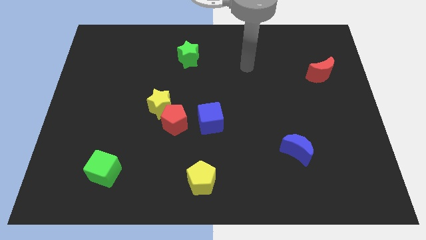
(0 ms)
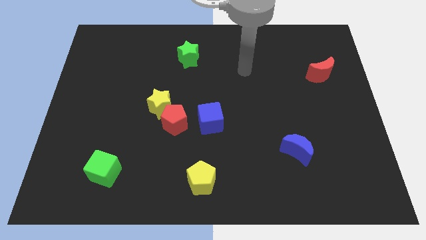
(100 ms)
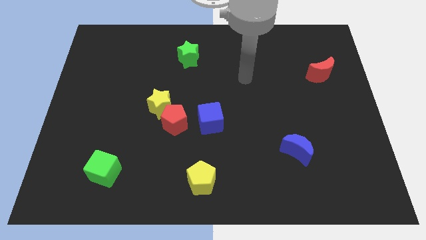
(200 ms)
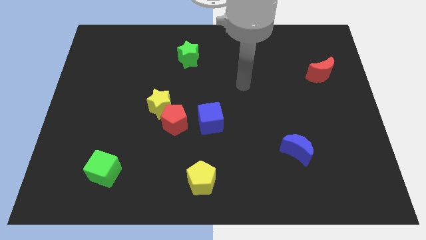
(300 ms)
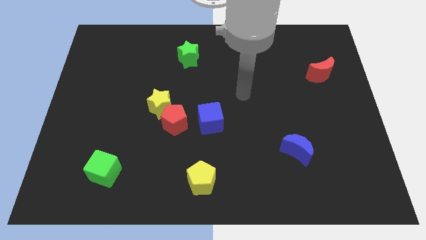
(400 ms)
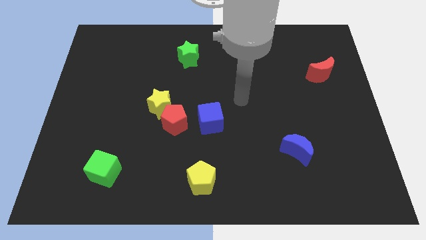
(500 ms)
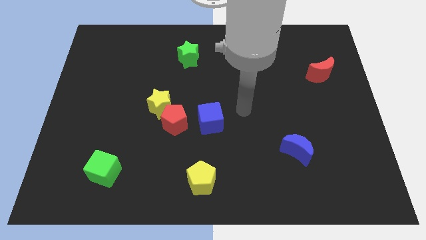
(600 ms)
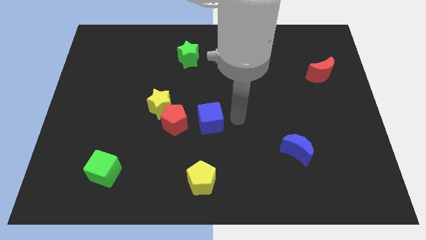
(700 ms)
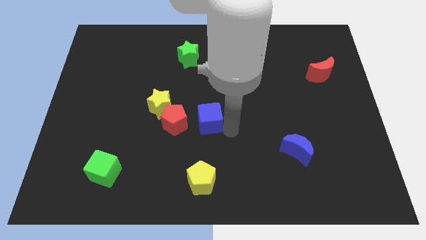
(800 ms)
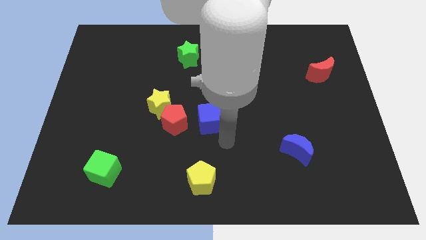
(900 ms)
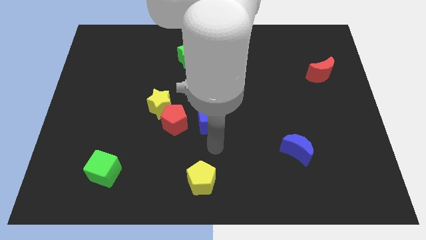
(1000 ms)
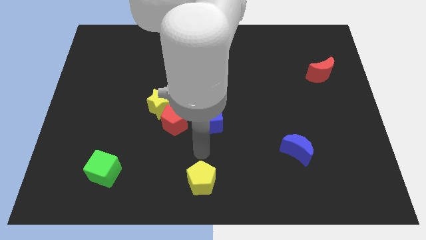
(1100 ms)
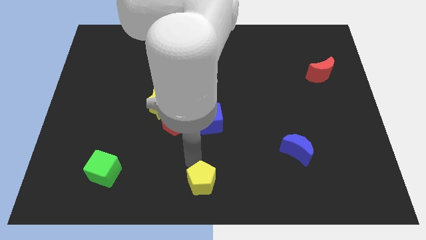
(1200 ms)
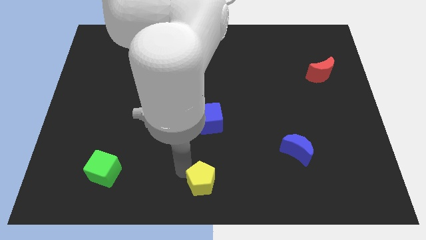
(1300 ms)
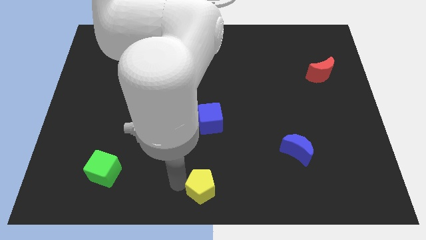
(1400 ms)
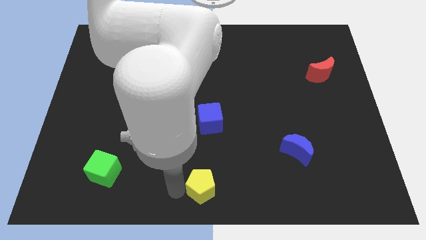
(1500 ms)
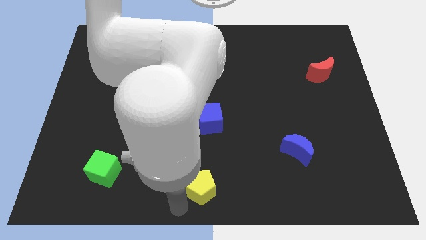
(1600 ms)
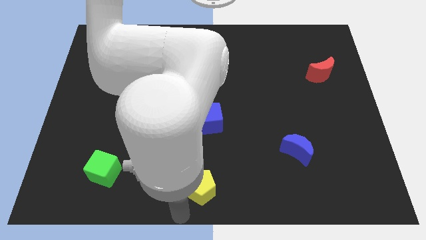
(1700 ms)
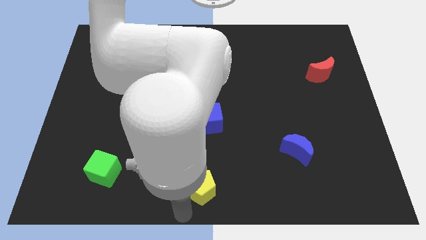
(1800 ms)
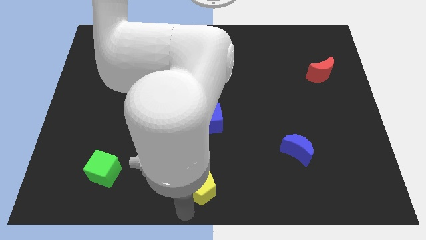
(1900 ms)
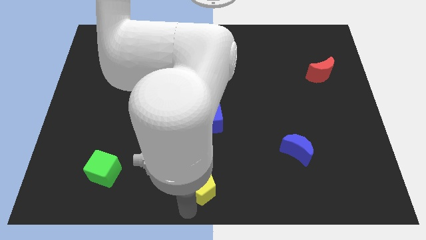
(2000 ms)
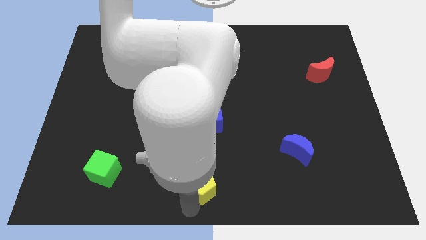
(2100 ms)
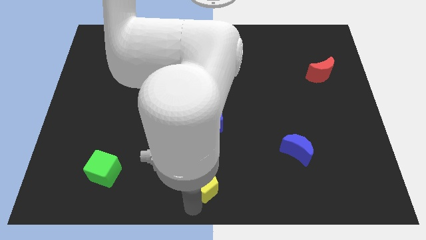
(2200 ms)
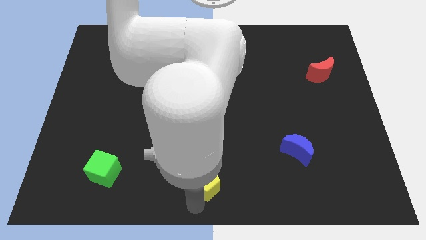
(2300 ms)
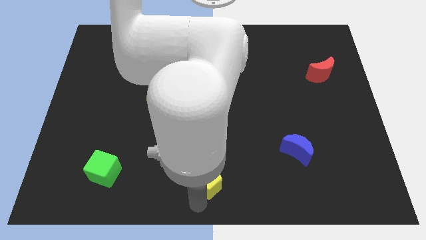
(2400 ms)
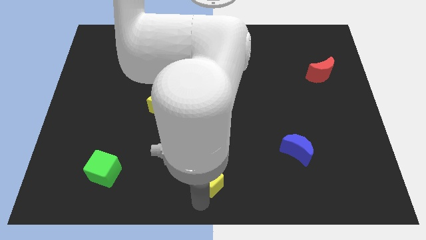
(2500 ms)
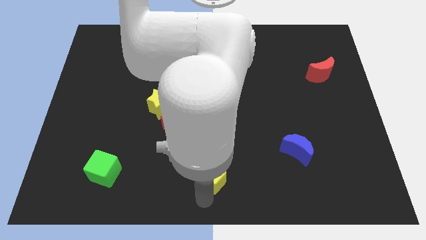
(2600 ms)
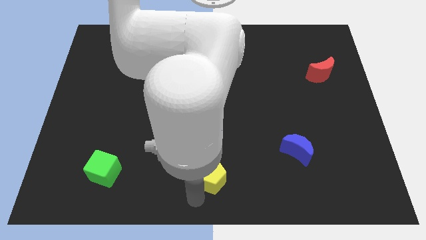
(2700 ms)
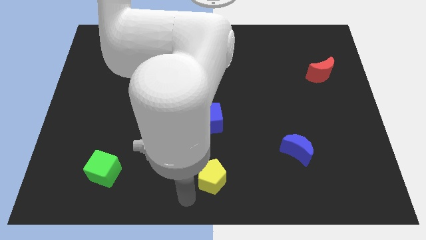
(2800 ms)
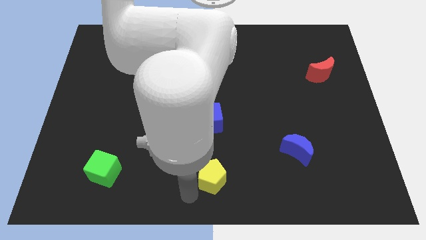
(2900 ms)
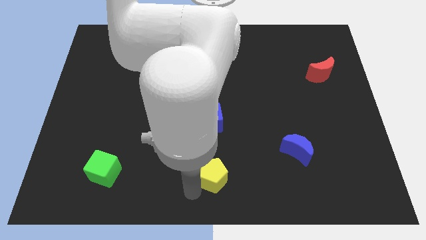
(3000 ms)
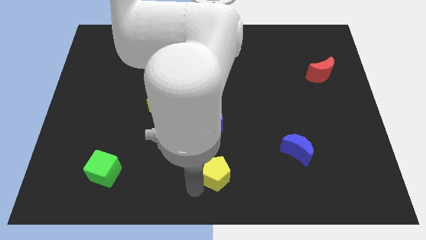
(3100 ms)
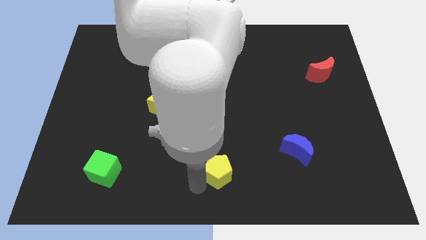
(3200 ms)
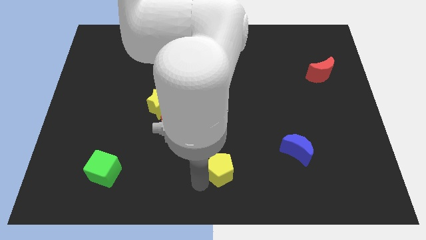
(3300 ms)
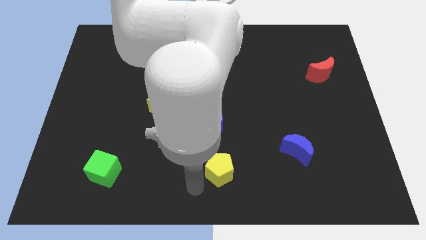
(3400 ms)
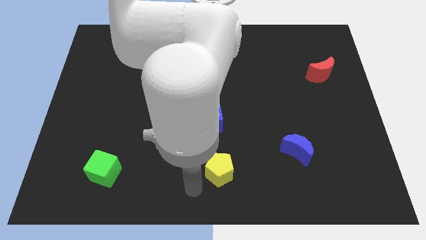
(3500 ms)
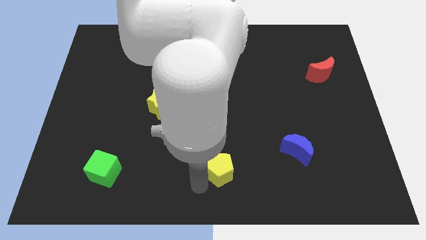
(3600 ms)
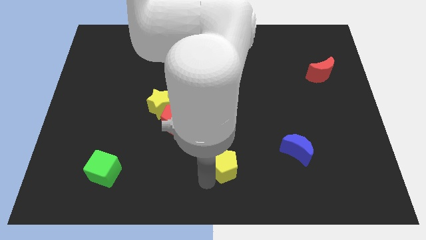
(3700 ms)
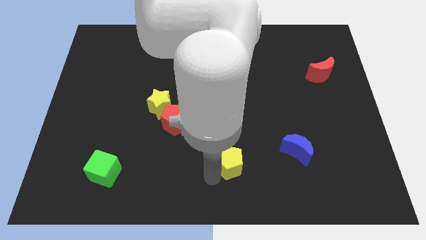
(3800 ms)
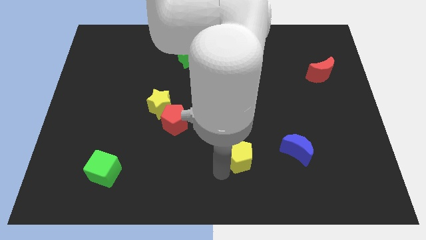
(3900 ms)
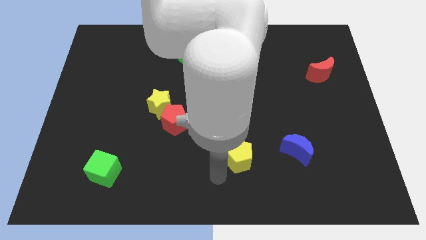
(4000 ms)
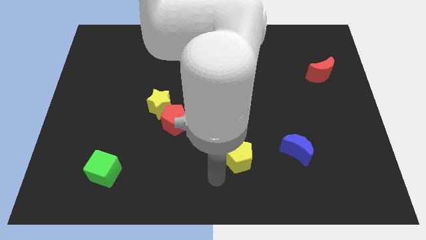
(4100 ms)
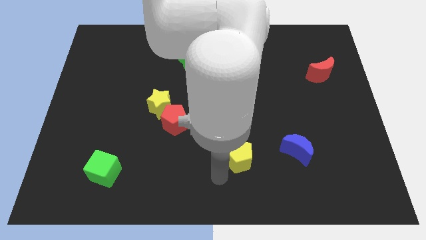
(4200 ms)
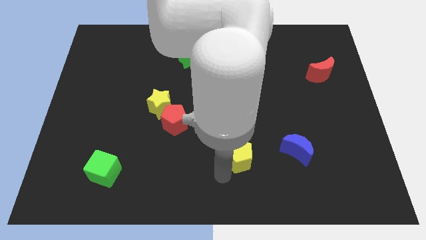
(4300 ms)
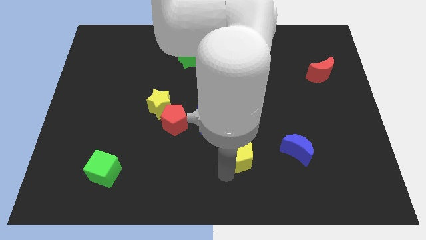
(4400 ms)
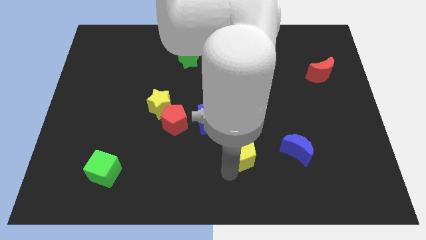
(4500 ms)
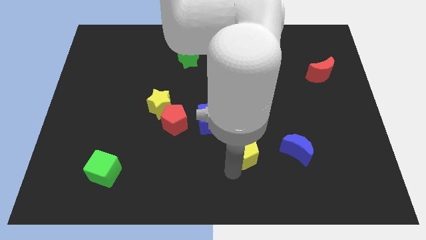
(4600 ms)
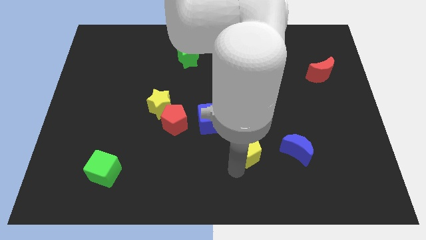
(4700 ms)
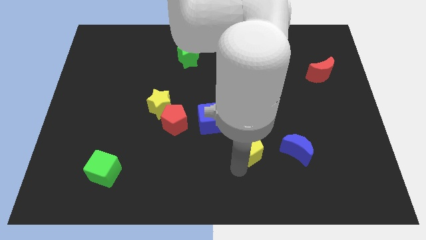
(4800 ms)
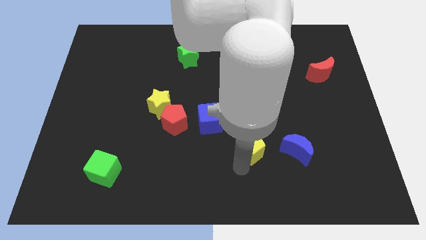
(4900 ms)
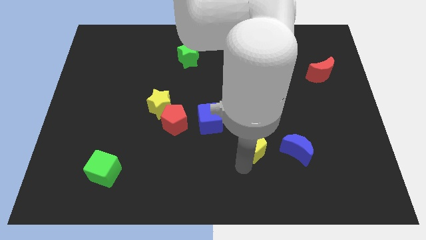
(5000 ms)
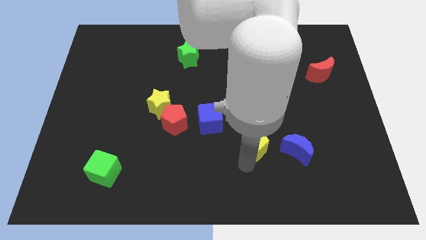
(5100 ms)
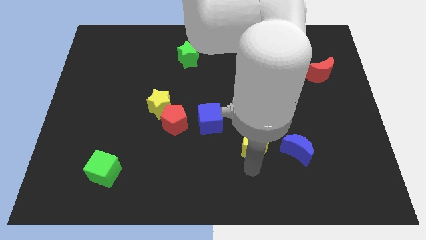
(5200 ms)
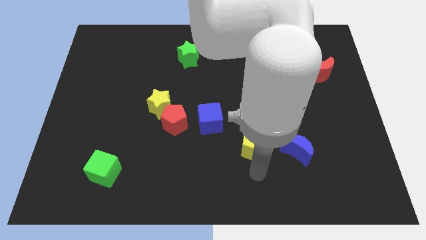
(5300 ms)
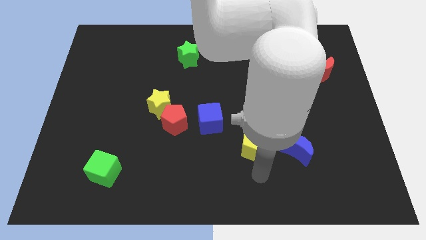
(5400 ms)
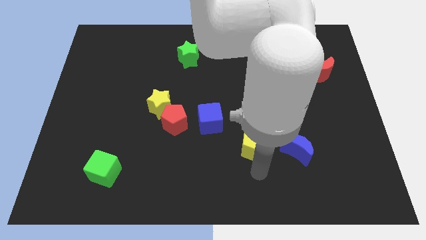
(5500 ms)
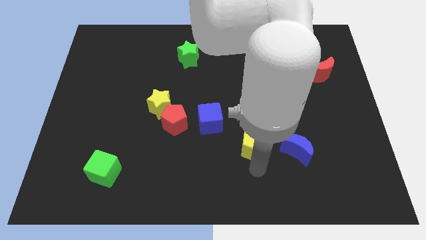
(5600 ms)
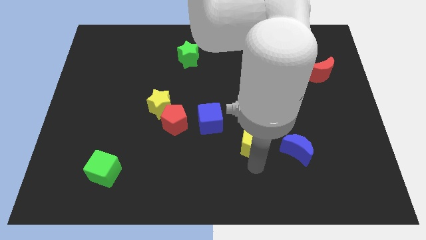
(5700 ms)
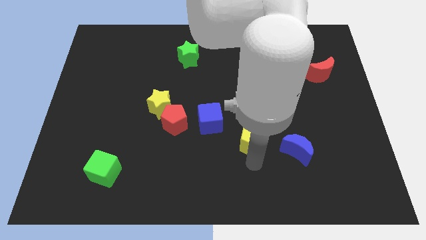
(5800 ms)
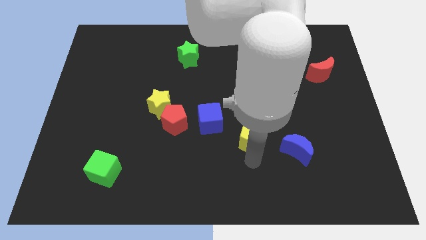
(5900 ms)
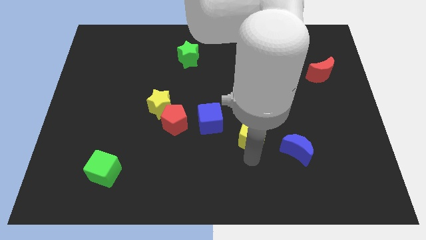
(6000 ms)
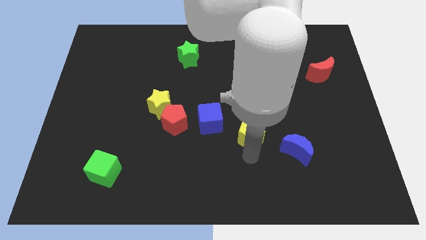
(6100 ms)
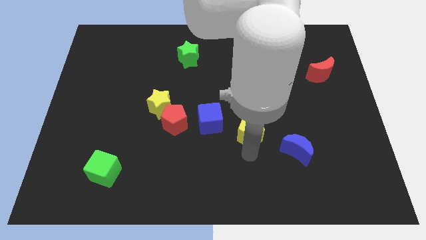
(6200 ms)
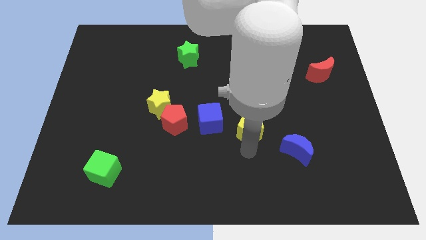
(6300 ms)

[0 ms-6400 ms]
push the yellow pentagon to the middle

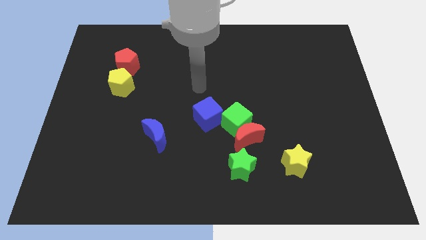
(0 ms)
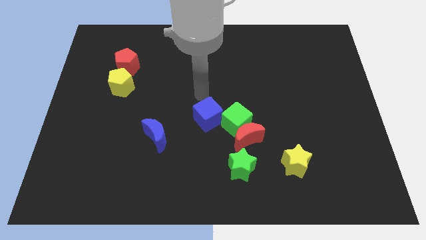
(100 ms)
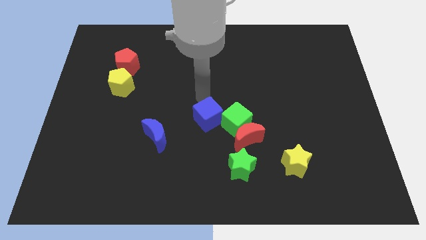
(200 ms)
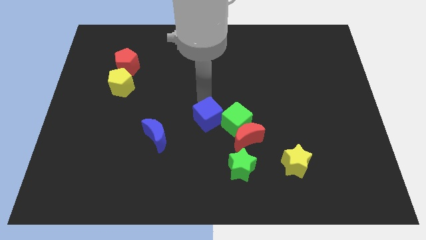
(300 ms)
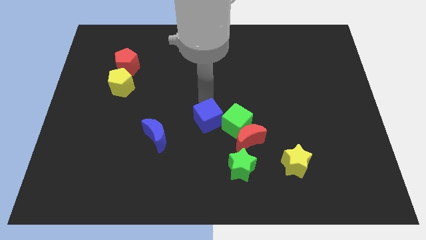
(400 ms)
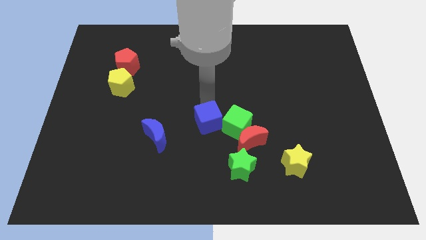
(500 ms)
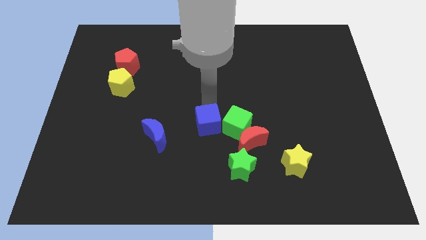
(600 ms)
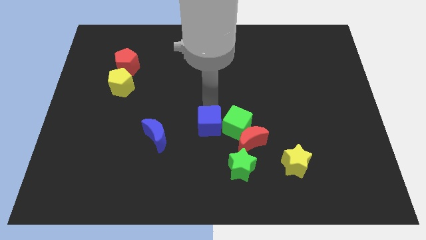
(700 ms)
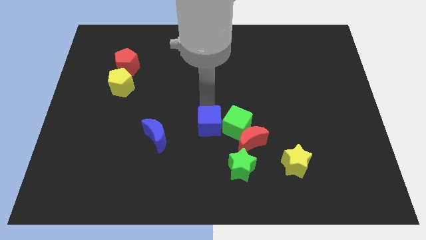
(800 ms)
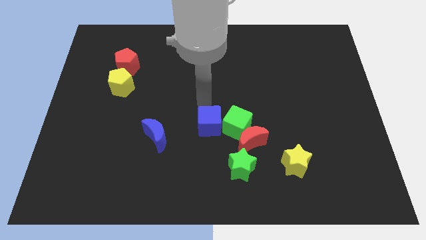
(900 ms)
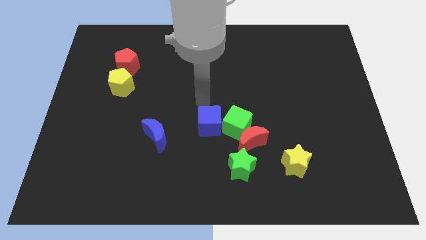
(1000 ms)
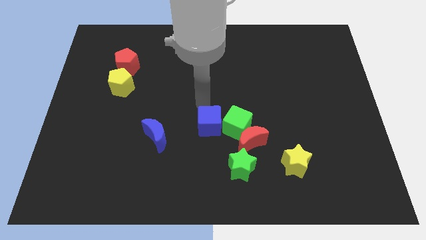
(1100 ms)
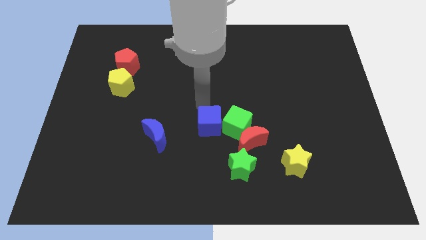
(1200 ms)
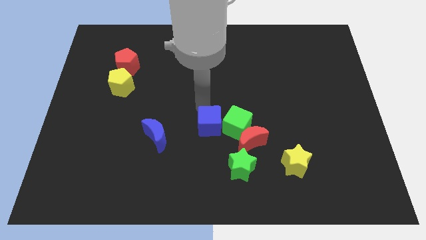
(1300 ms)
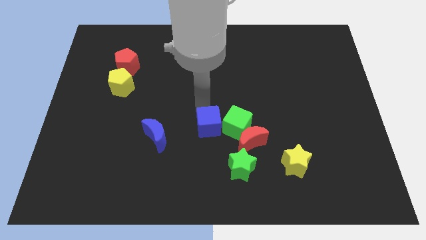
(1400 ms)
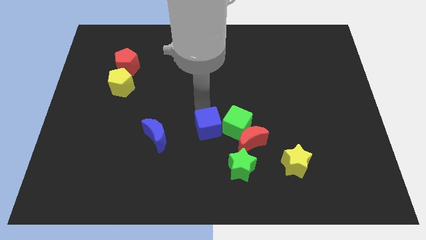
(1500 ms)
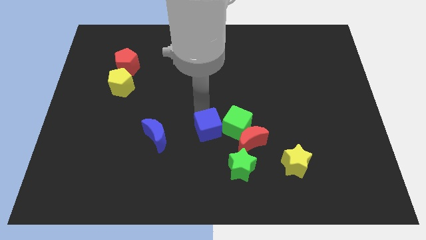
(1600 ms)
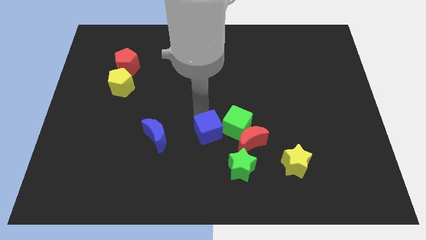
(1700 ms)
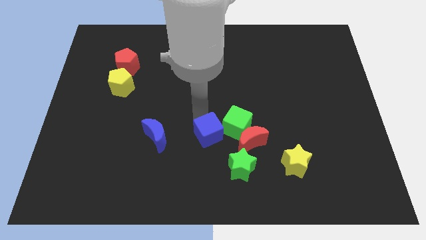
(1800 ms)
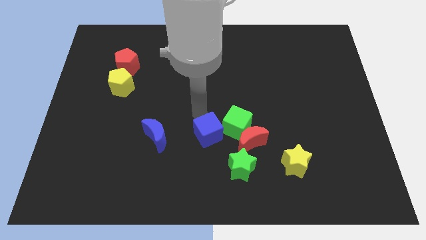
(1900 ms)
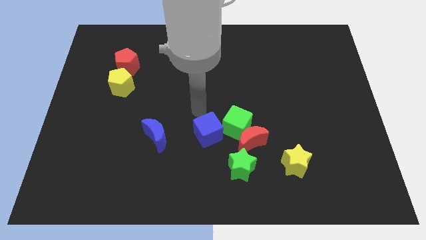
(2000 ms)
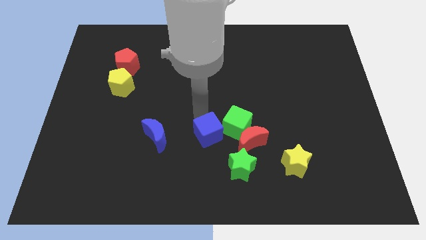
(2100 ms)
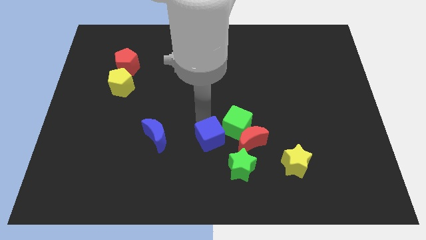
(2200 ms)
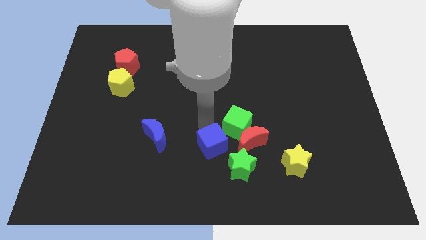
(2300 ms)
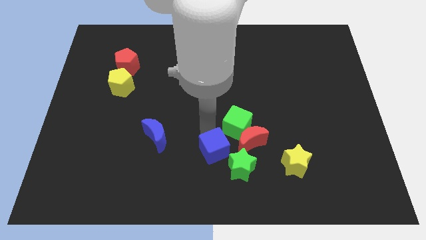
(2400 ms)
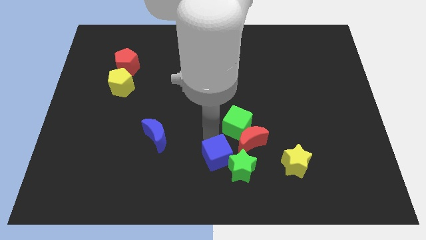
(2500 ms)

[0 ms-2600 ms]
move the blue cube to the bottom
